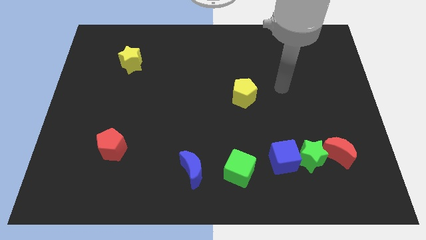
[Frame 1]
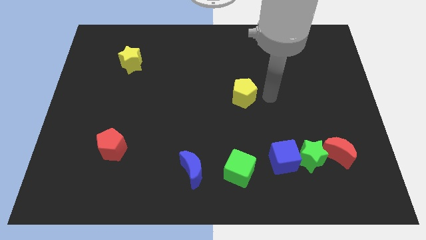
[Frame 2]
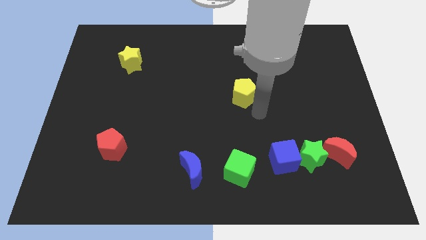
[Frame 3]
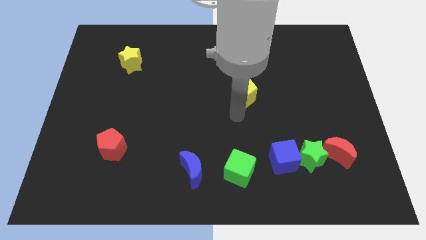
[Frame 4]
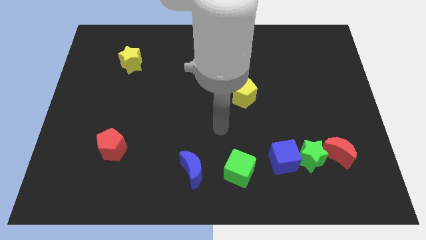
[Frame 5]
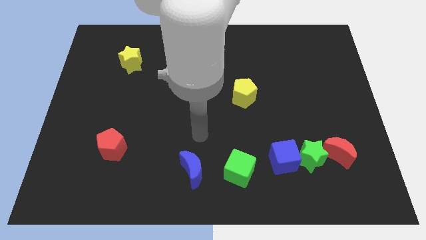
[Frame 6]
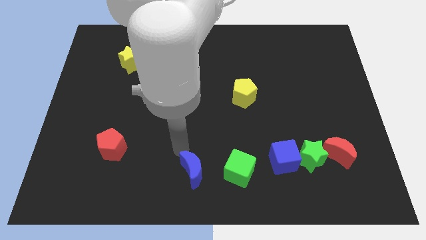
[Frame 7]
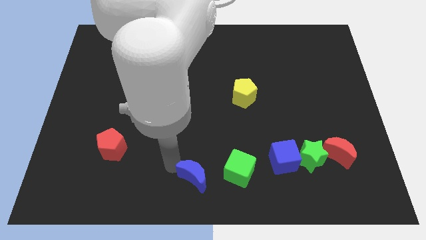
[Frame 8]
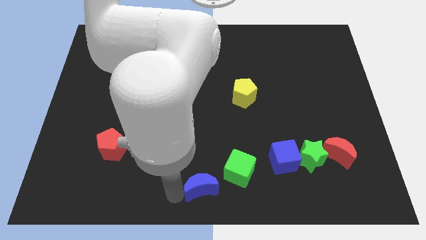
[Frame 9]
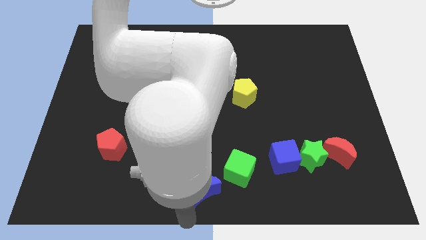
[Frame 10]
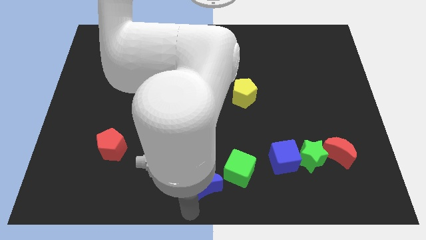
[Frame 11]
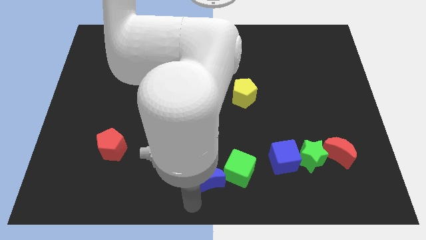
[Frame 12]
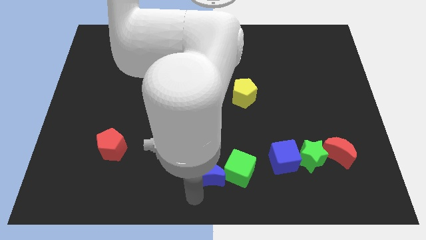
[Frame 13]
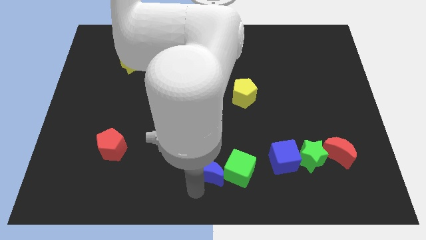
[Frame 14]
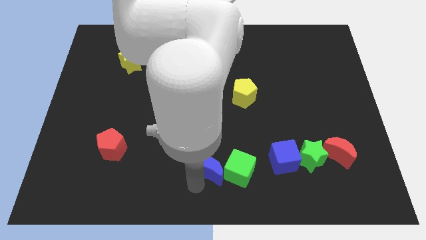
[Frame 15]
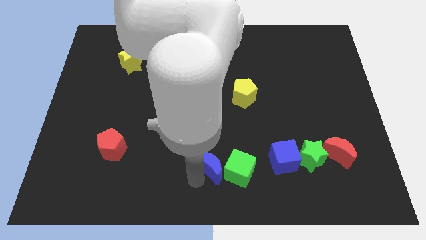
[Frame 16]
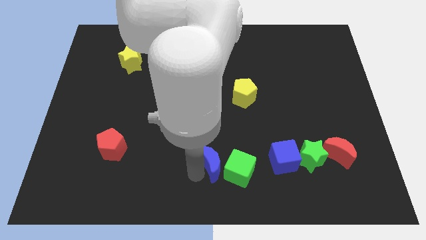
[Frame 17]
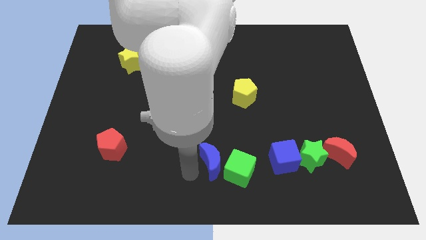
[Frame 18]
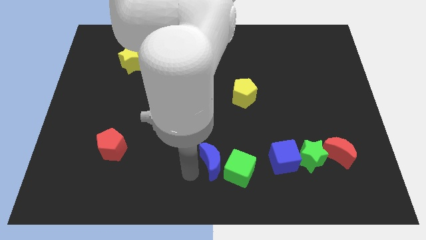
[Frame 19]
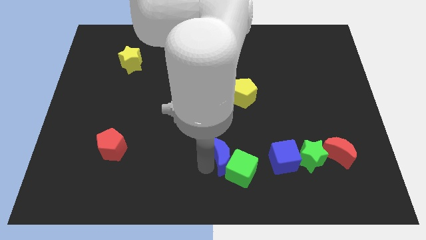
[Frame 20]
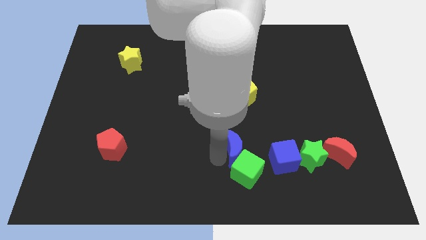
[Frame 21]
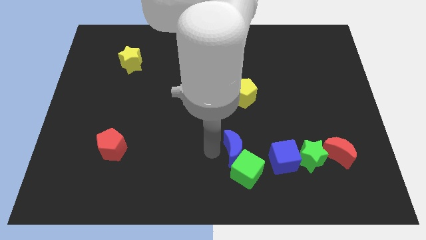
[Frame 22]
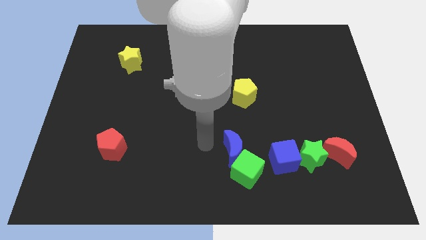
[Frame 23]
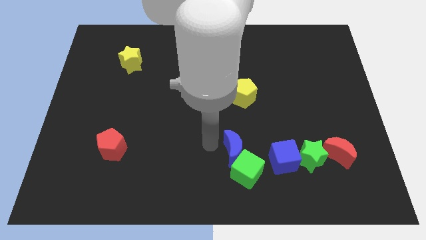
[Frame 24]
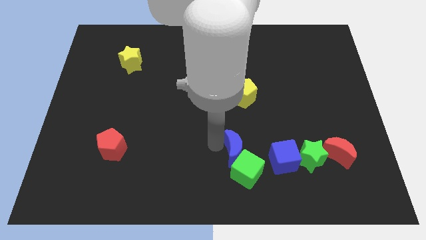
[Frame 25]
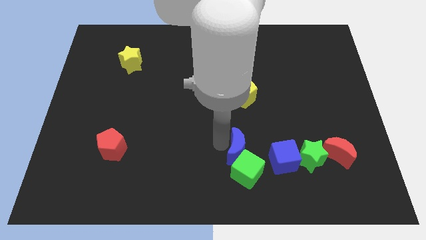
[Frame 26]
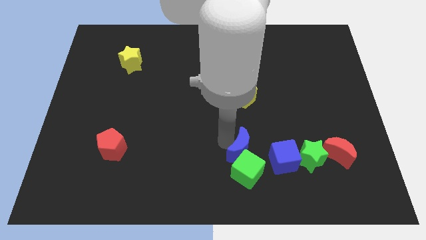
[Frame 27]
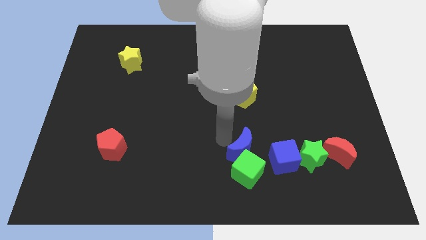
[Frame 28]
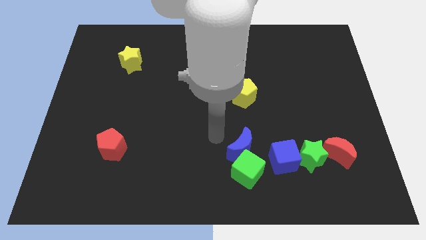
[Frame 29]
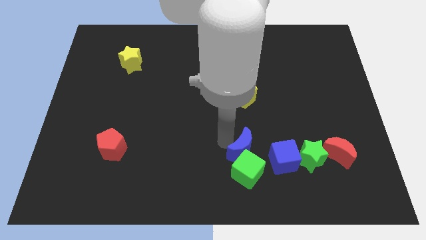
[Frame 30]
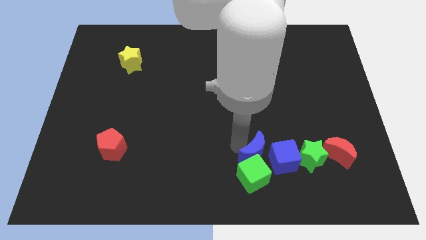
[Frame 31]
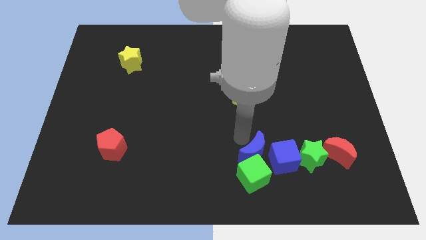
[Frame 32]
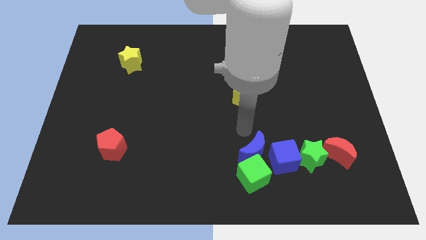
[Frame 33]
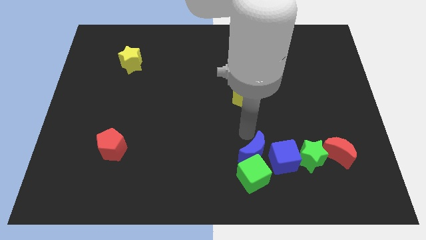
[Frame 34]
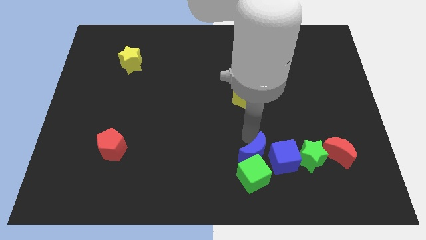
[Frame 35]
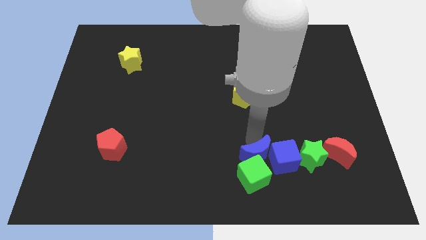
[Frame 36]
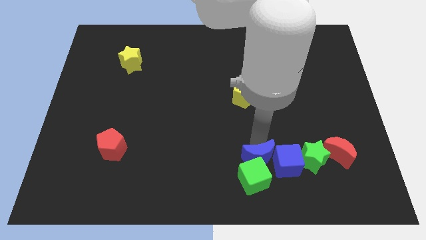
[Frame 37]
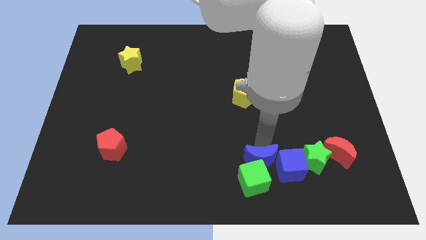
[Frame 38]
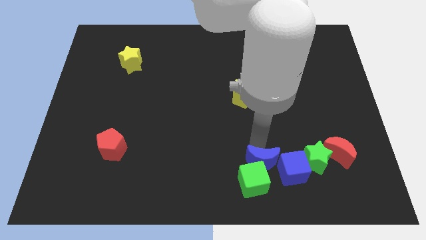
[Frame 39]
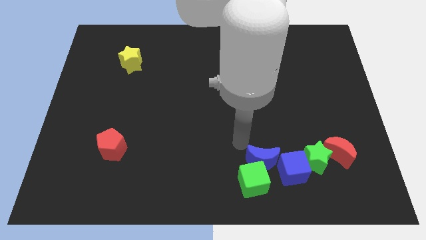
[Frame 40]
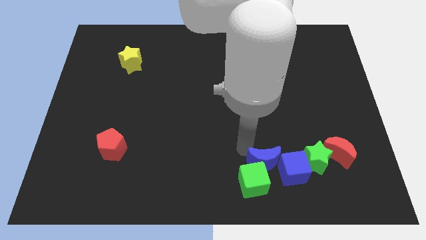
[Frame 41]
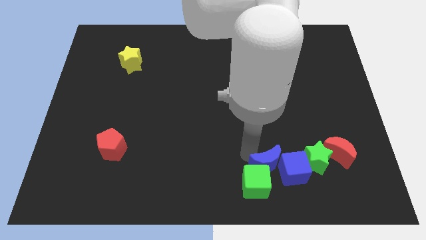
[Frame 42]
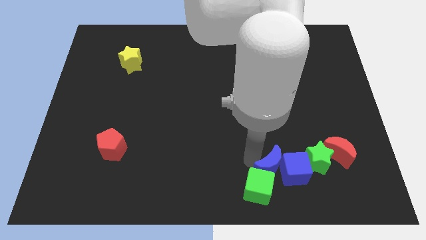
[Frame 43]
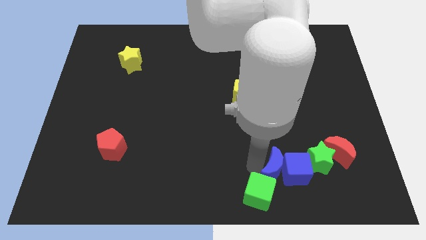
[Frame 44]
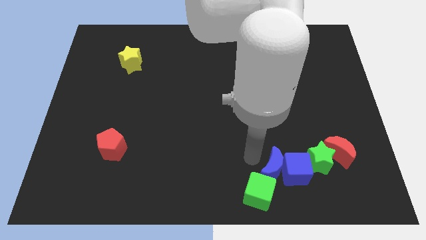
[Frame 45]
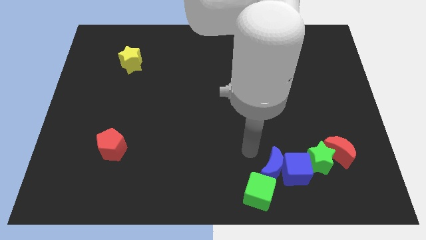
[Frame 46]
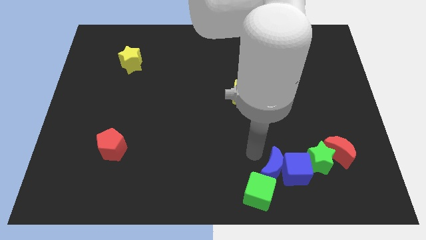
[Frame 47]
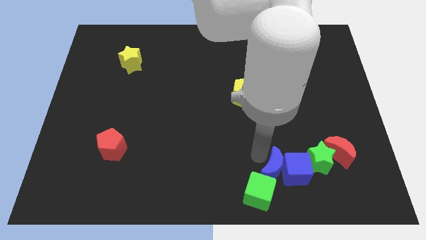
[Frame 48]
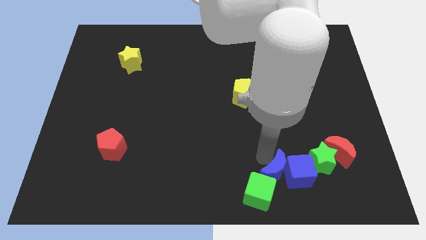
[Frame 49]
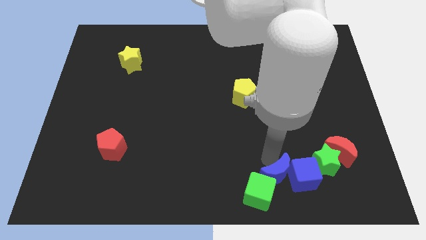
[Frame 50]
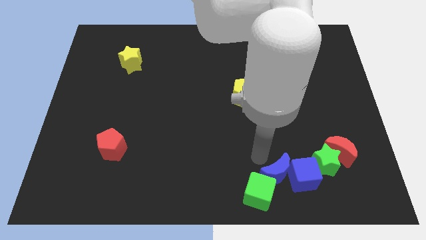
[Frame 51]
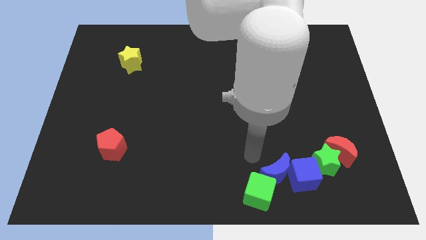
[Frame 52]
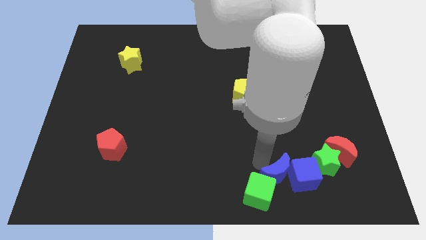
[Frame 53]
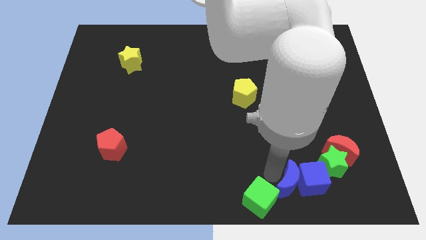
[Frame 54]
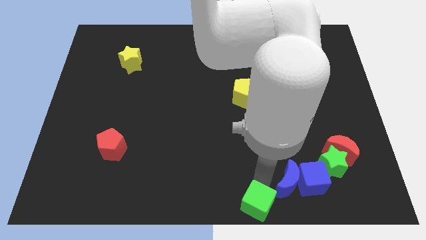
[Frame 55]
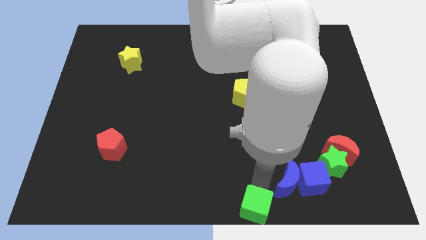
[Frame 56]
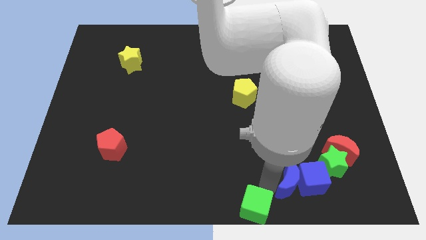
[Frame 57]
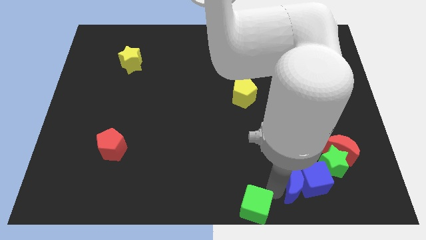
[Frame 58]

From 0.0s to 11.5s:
move the blue moon to the right

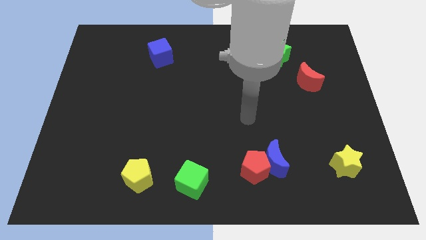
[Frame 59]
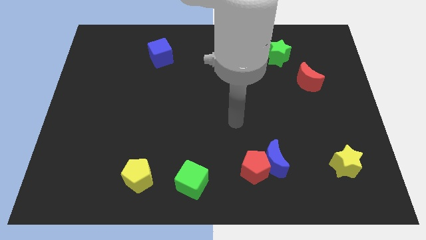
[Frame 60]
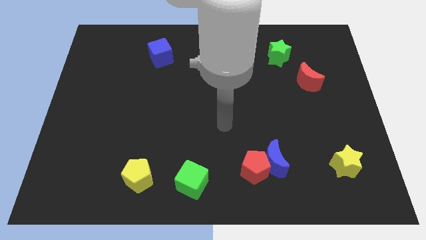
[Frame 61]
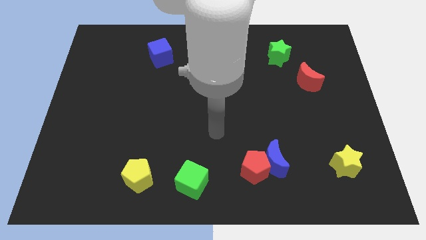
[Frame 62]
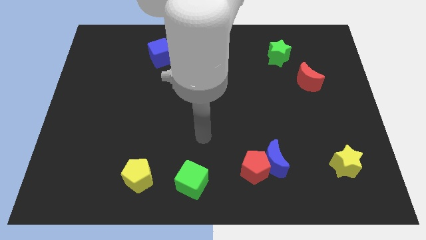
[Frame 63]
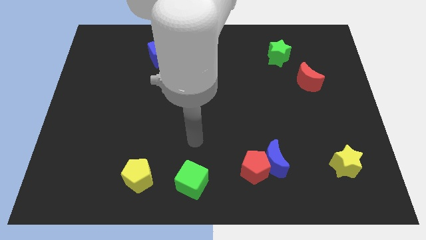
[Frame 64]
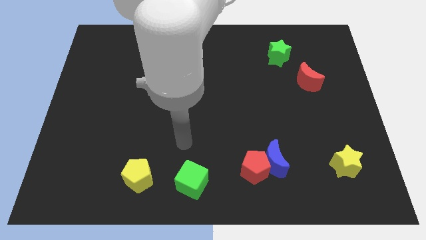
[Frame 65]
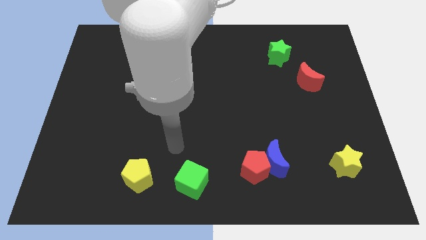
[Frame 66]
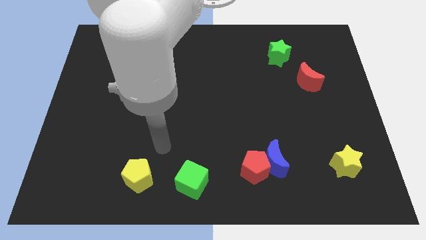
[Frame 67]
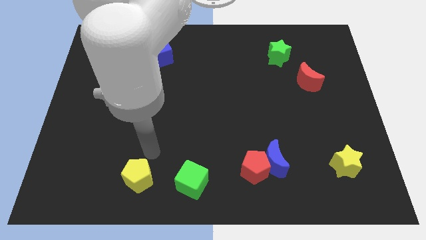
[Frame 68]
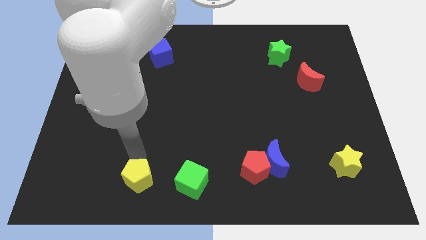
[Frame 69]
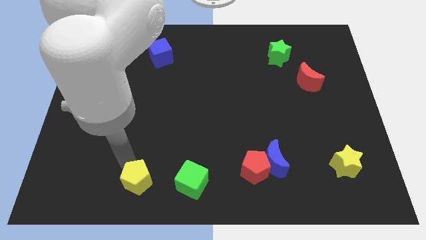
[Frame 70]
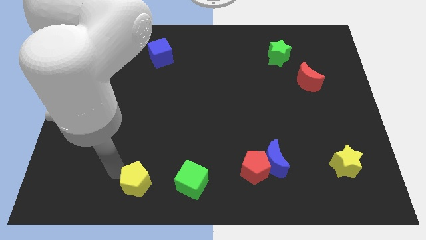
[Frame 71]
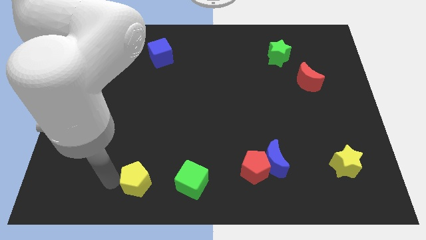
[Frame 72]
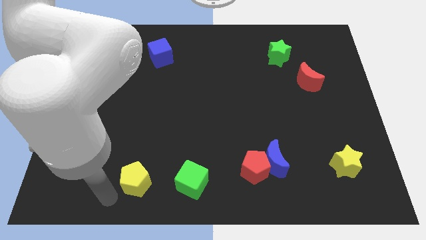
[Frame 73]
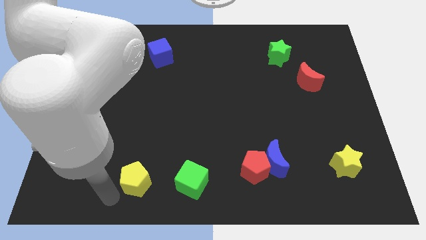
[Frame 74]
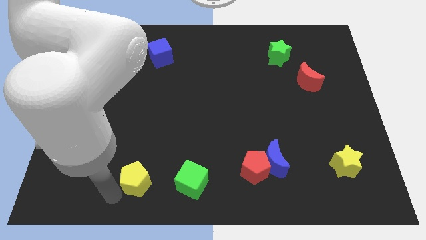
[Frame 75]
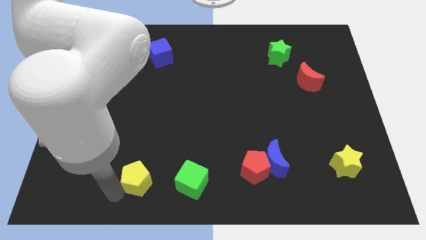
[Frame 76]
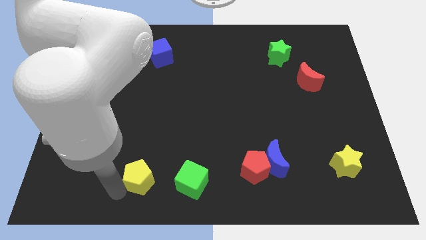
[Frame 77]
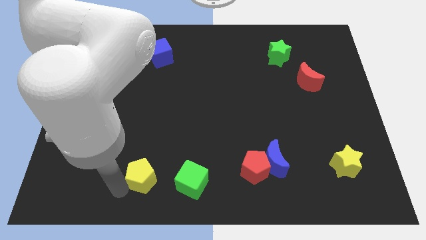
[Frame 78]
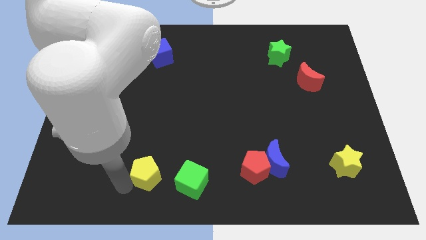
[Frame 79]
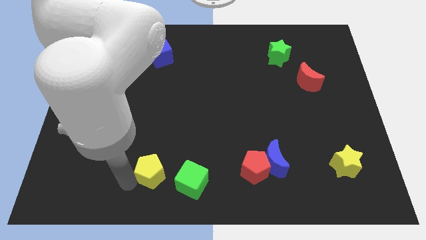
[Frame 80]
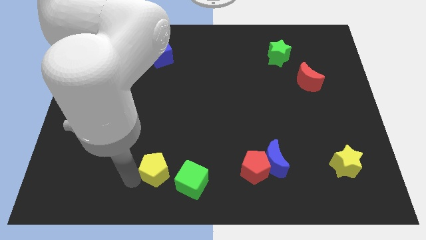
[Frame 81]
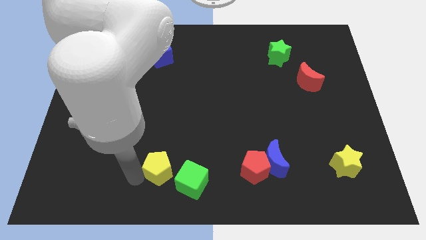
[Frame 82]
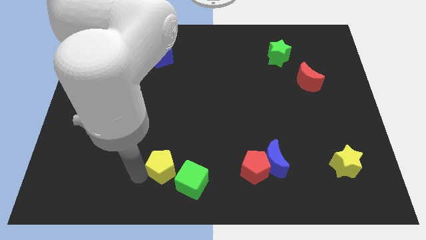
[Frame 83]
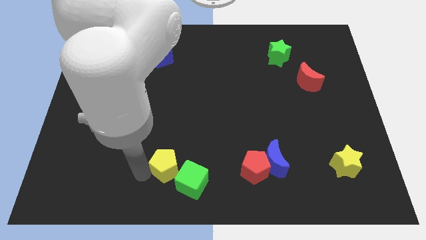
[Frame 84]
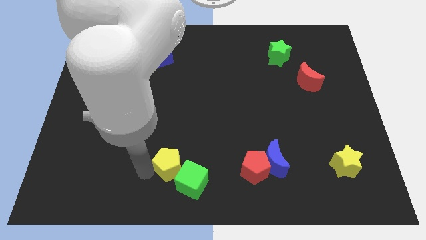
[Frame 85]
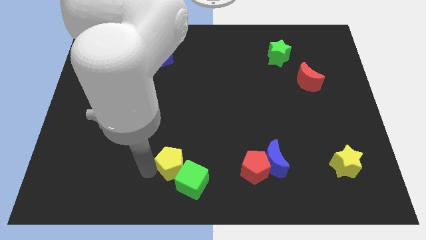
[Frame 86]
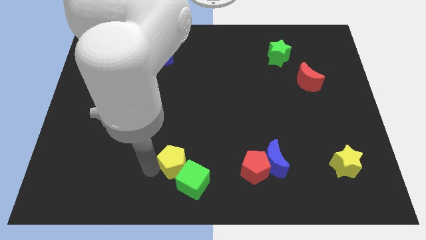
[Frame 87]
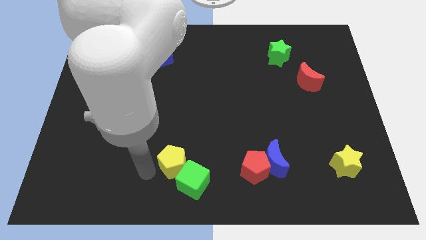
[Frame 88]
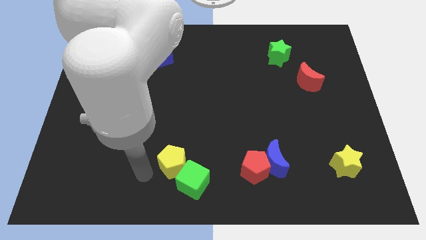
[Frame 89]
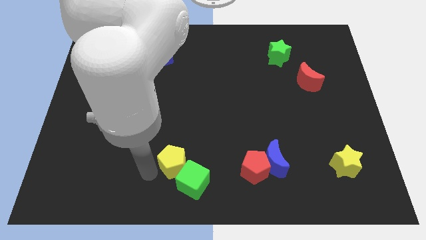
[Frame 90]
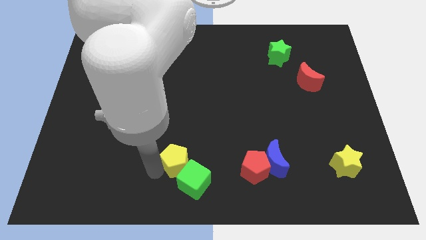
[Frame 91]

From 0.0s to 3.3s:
slide the yellow pentagon a bit to the right
